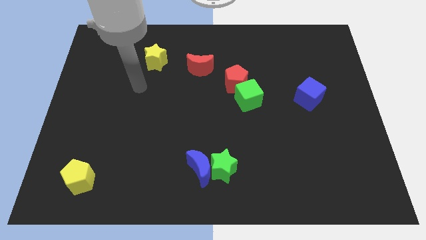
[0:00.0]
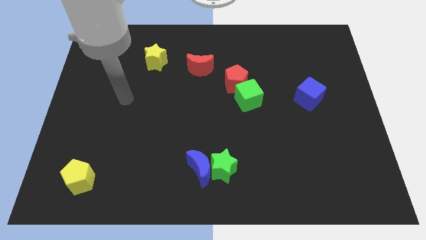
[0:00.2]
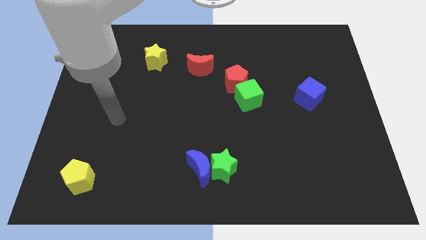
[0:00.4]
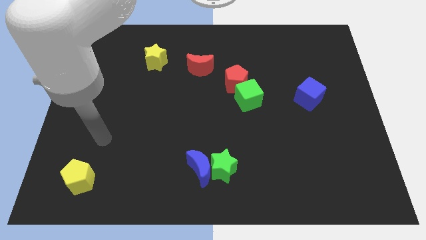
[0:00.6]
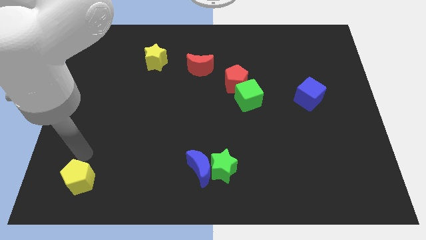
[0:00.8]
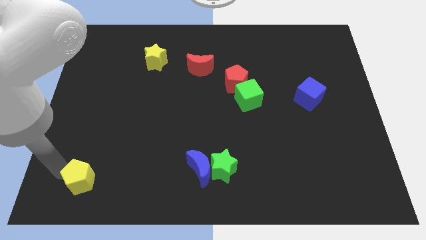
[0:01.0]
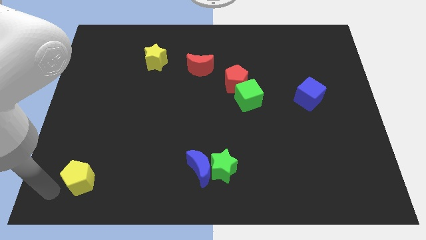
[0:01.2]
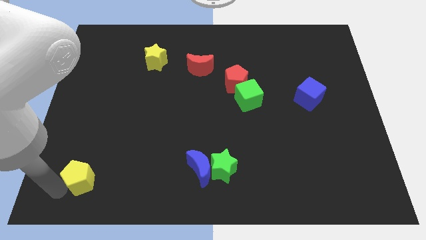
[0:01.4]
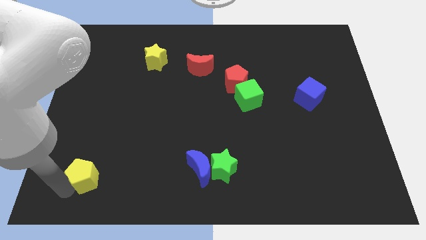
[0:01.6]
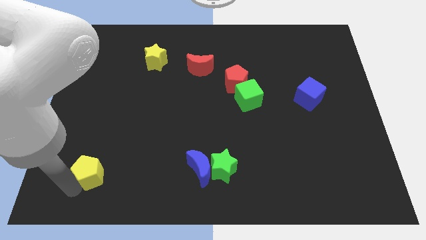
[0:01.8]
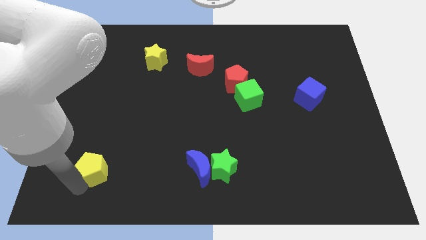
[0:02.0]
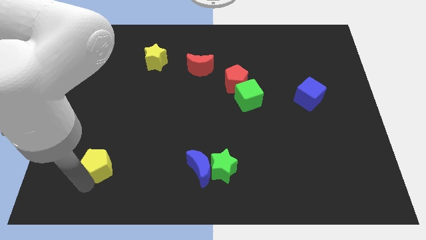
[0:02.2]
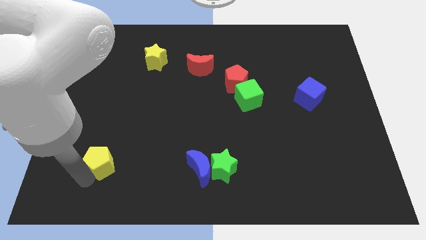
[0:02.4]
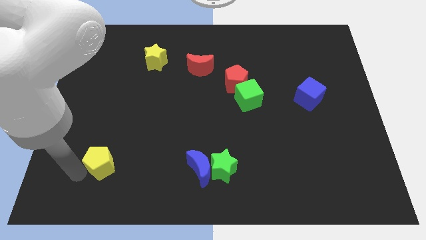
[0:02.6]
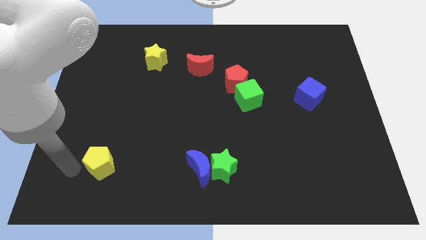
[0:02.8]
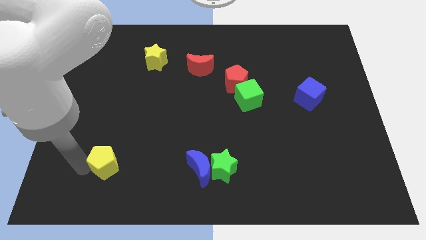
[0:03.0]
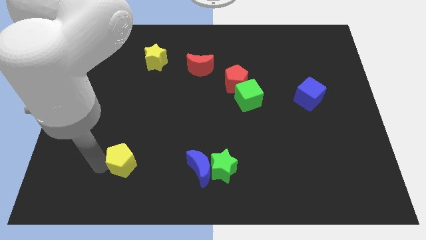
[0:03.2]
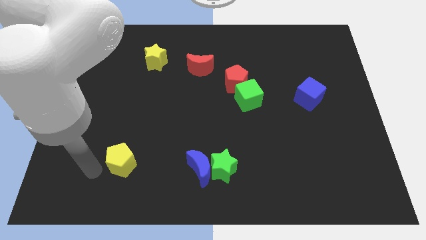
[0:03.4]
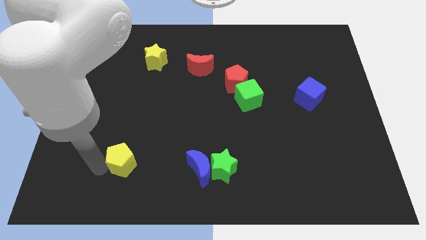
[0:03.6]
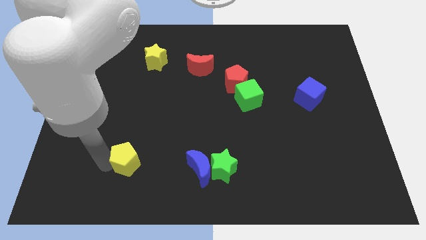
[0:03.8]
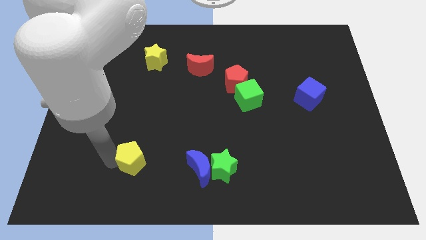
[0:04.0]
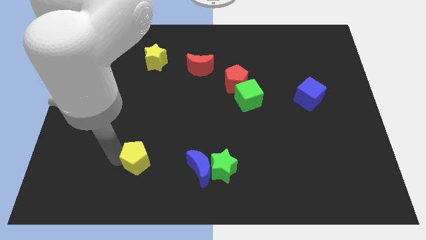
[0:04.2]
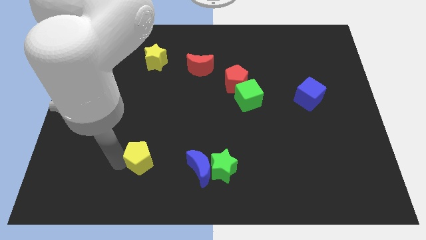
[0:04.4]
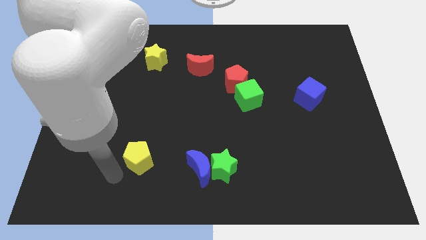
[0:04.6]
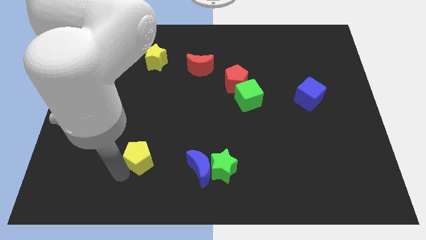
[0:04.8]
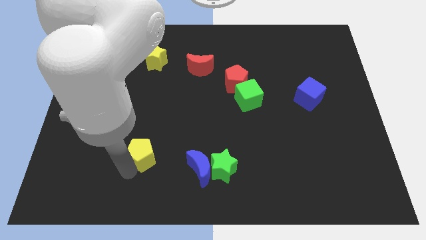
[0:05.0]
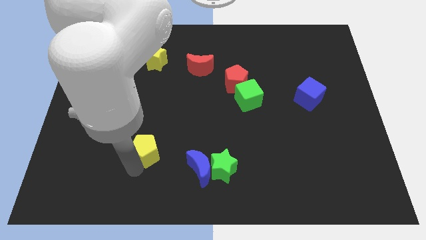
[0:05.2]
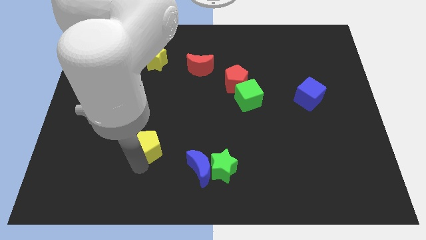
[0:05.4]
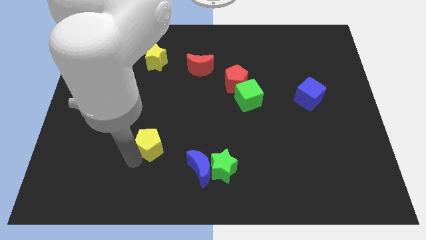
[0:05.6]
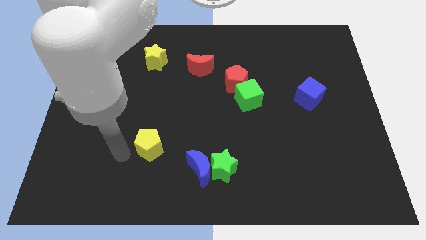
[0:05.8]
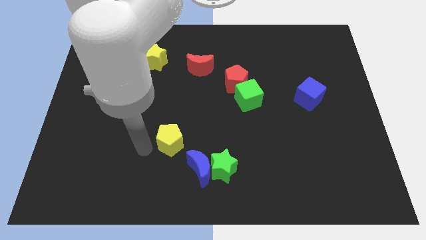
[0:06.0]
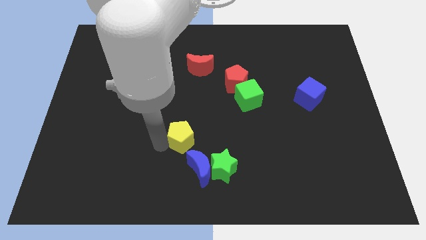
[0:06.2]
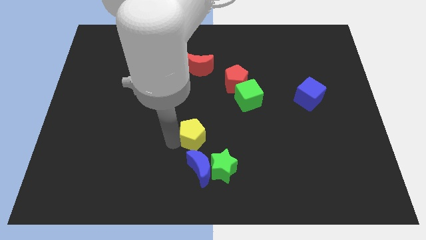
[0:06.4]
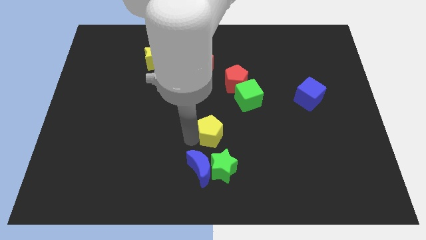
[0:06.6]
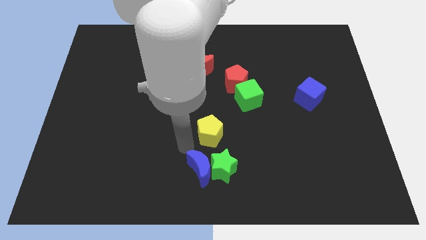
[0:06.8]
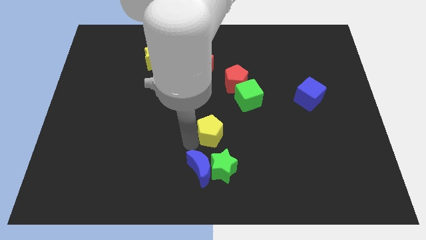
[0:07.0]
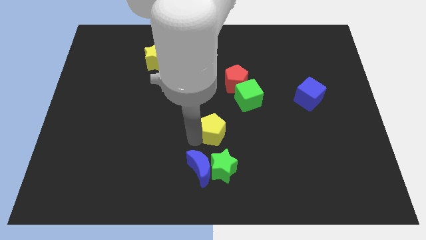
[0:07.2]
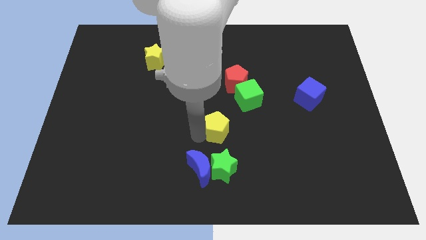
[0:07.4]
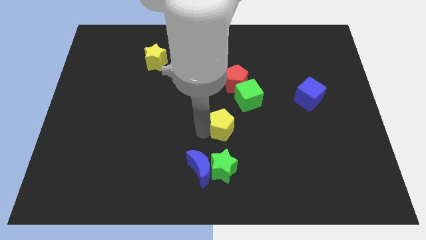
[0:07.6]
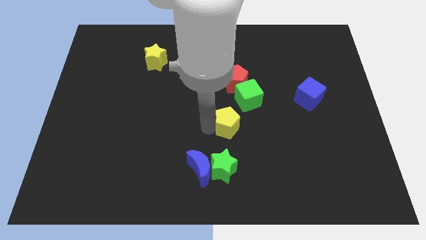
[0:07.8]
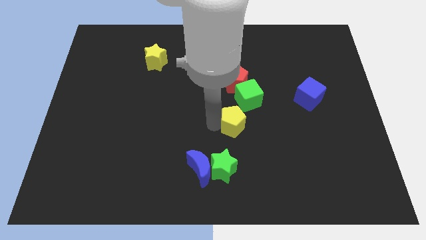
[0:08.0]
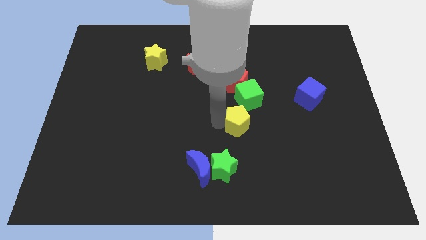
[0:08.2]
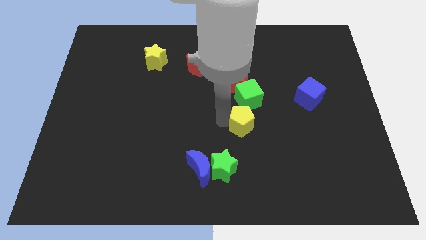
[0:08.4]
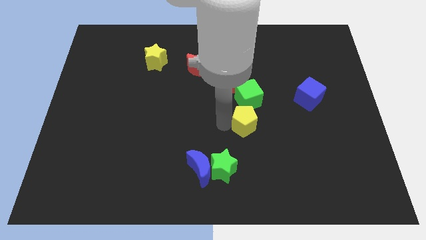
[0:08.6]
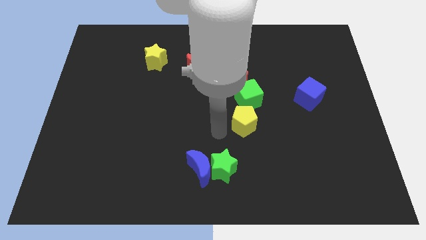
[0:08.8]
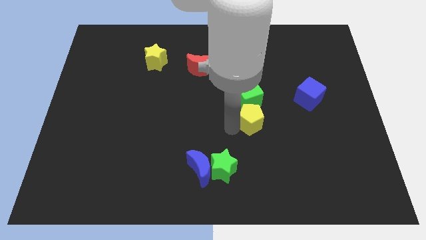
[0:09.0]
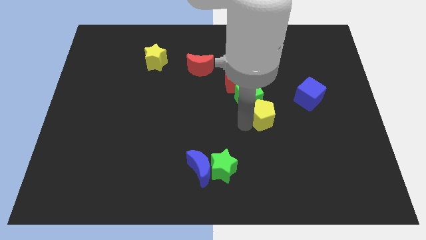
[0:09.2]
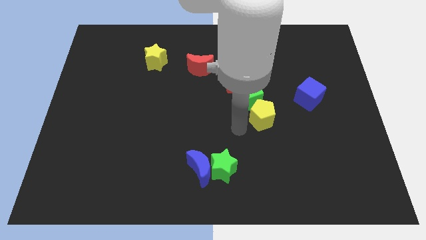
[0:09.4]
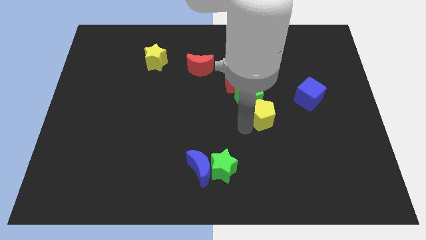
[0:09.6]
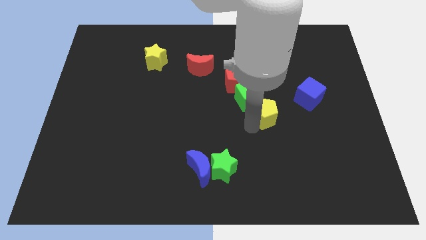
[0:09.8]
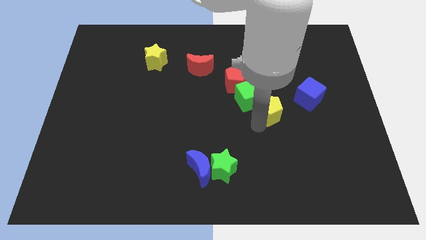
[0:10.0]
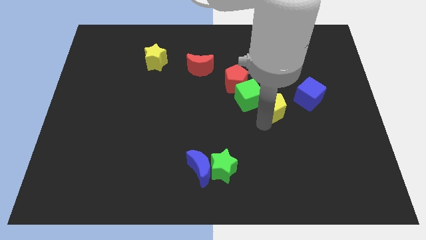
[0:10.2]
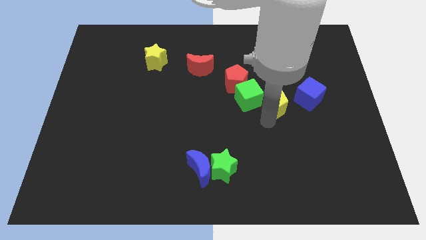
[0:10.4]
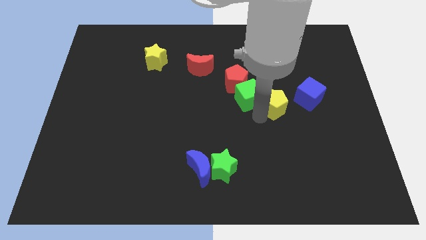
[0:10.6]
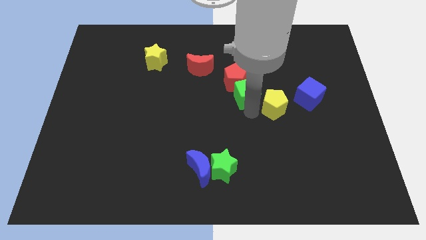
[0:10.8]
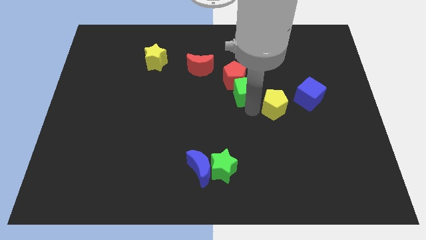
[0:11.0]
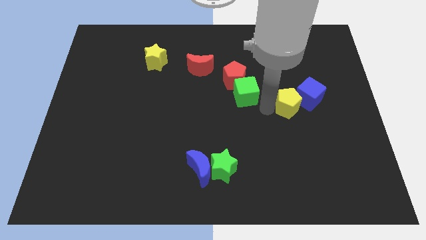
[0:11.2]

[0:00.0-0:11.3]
move the yellow pentagon close to the blue cube

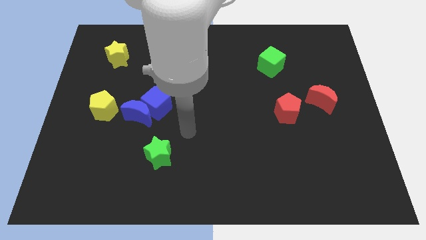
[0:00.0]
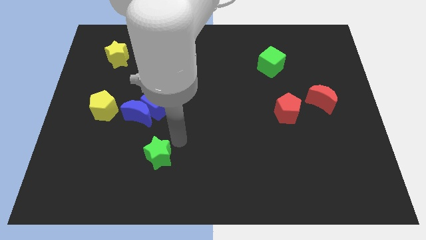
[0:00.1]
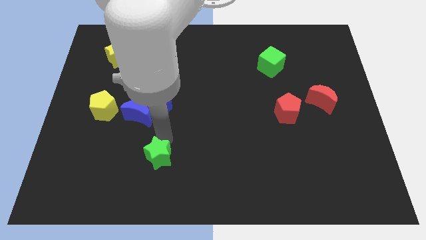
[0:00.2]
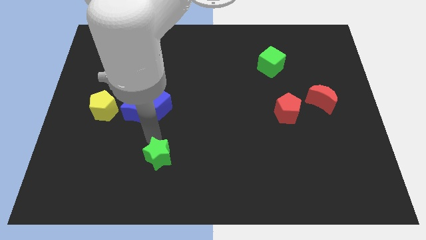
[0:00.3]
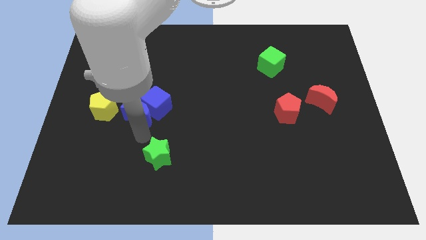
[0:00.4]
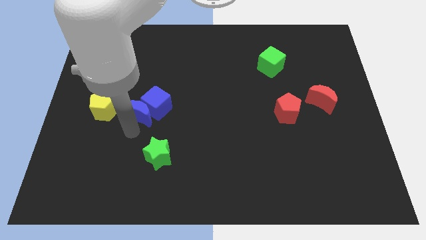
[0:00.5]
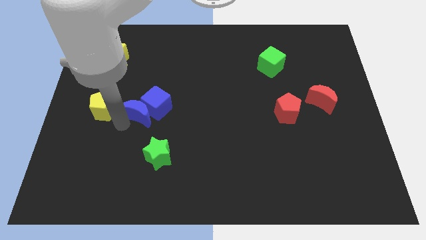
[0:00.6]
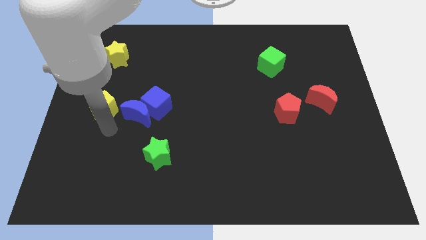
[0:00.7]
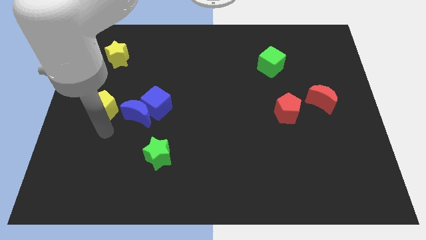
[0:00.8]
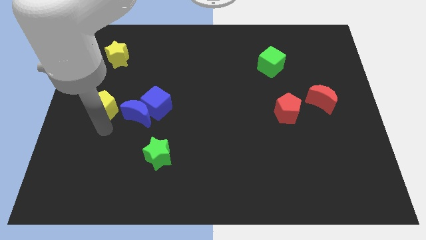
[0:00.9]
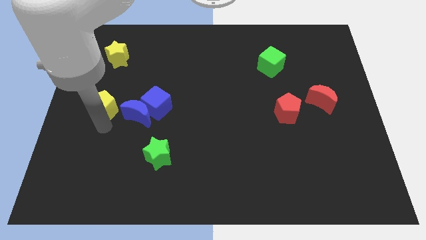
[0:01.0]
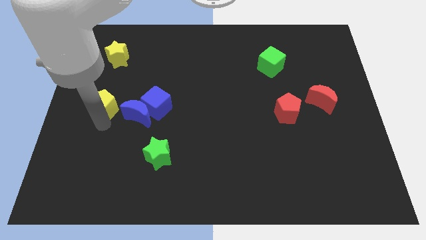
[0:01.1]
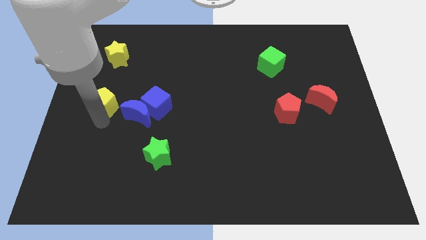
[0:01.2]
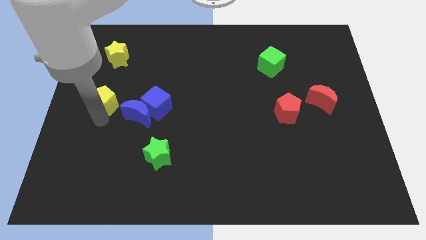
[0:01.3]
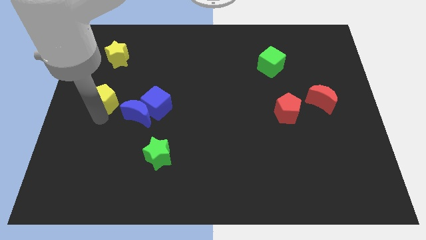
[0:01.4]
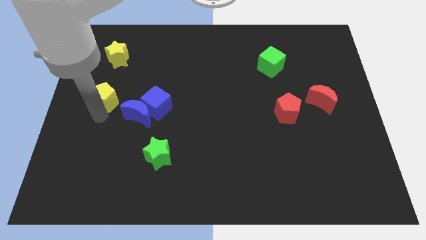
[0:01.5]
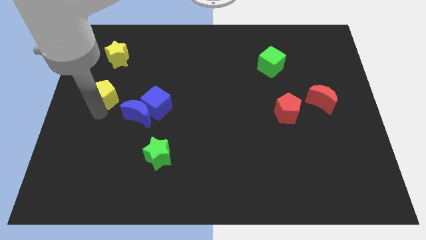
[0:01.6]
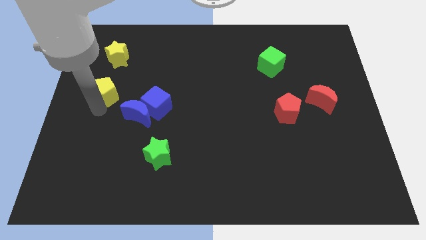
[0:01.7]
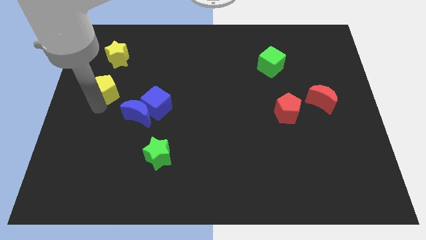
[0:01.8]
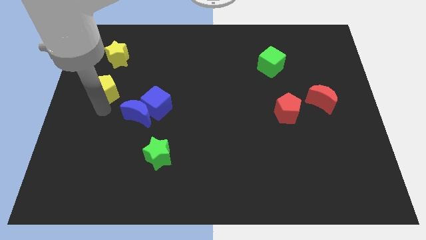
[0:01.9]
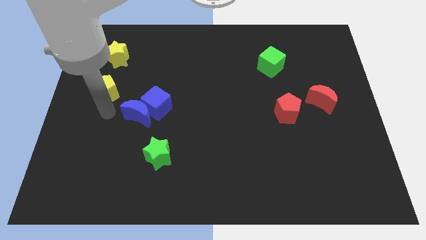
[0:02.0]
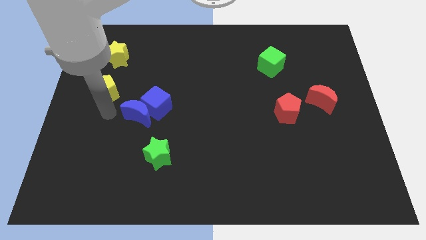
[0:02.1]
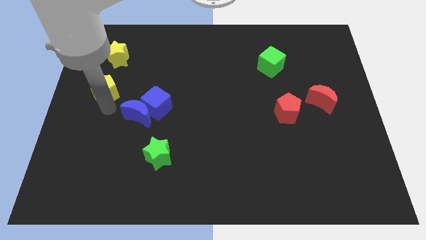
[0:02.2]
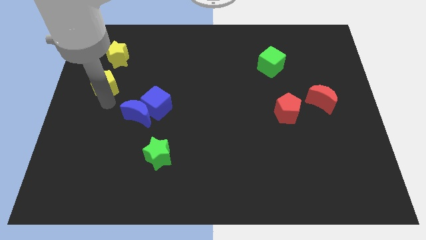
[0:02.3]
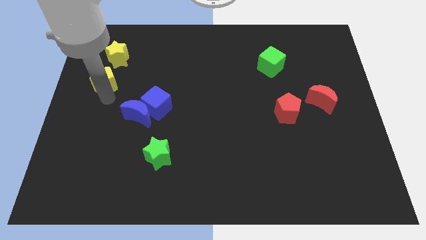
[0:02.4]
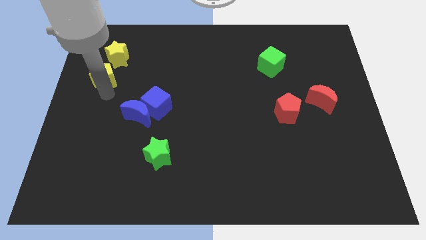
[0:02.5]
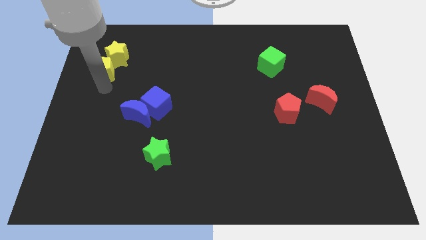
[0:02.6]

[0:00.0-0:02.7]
put the yellow pentagon towards the yellow star
